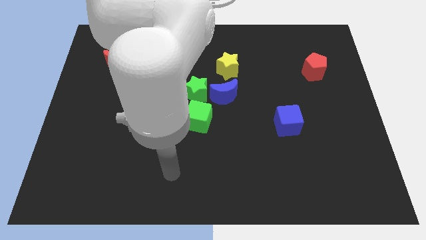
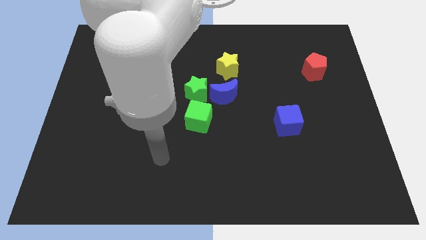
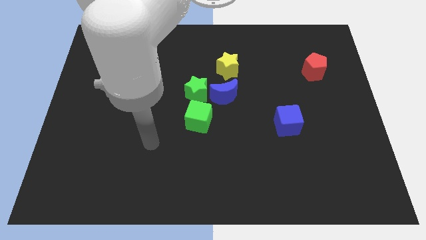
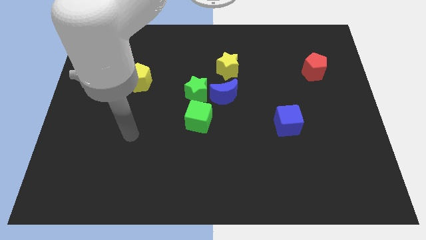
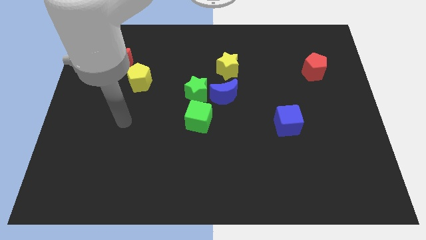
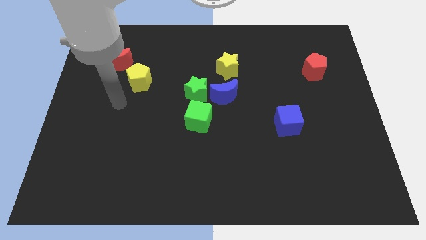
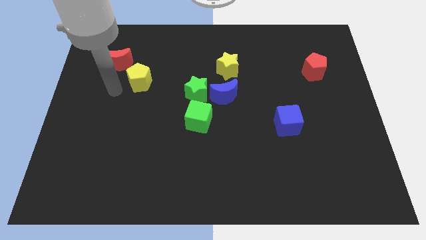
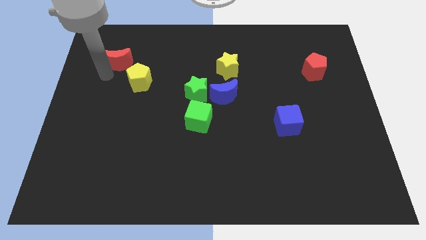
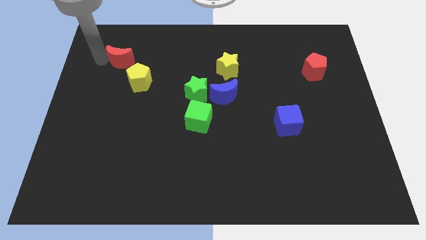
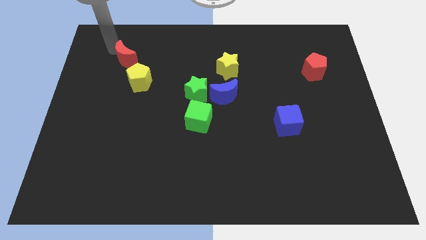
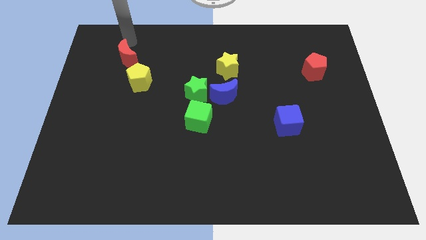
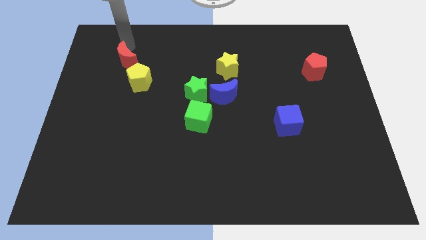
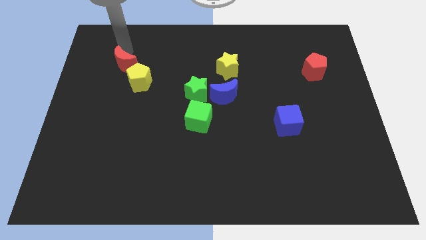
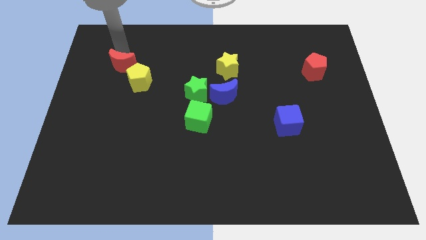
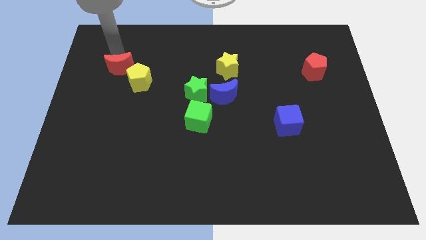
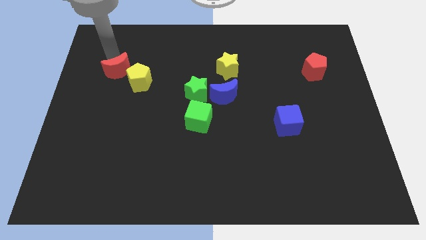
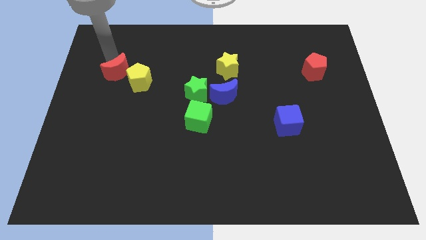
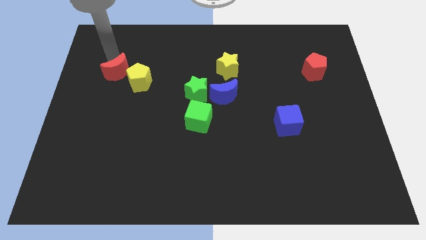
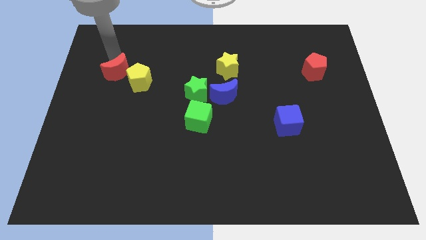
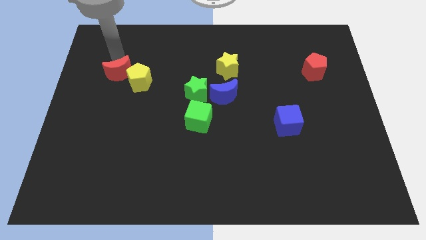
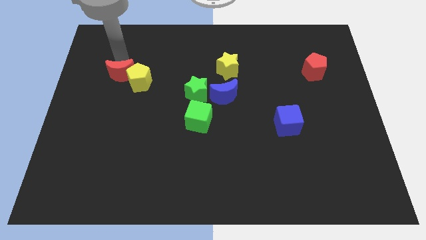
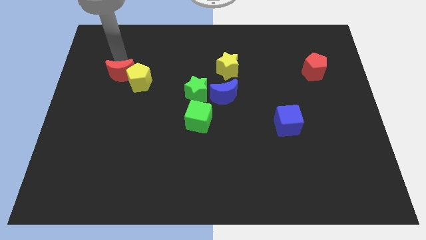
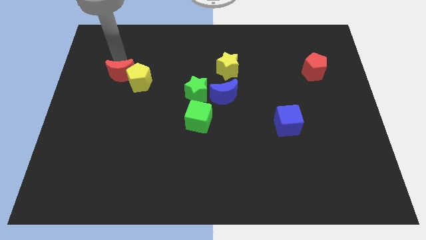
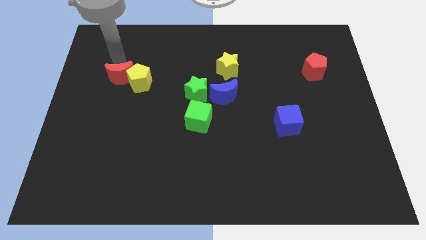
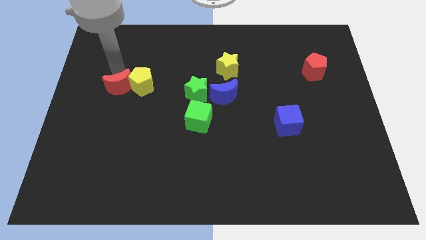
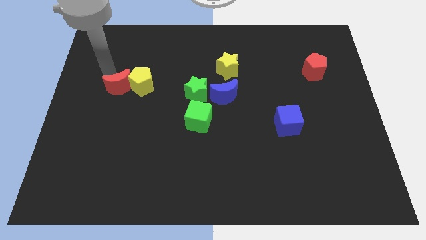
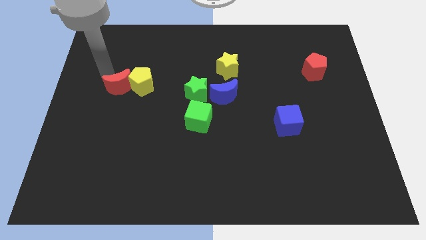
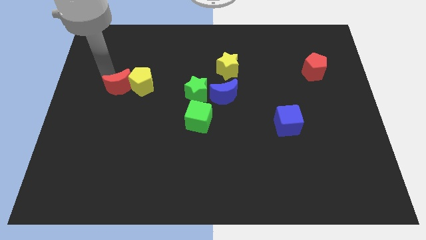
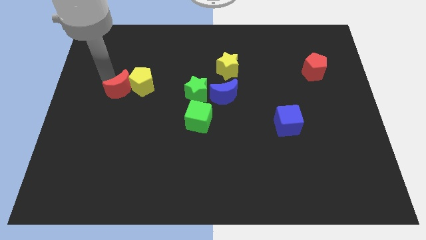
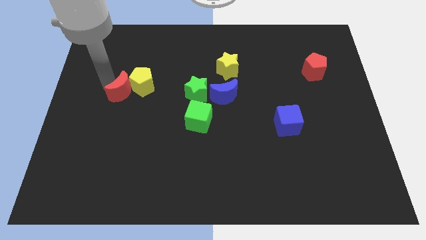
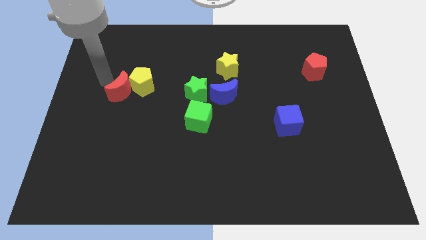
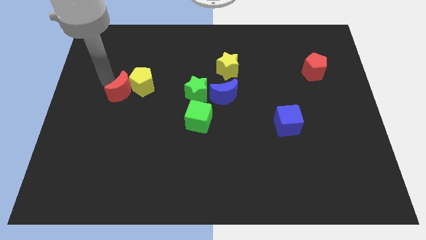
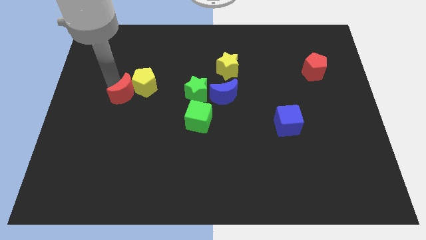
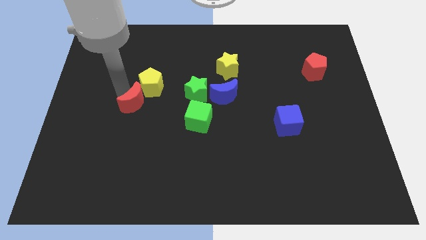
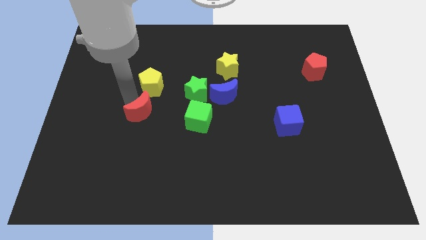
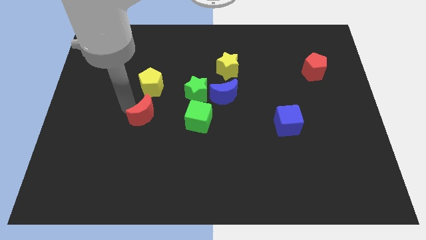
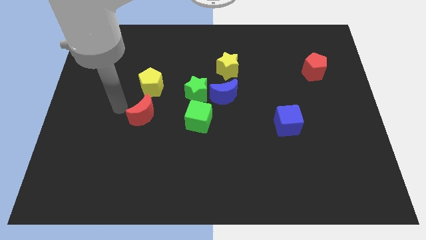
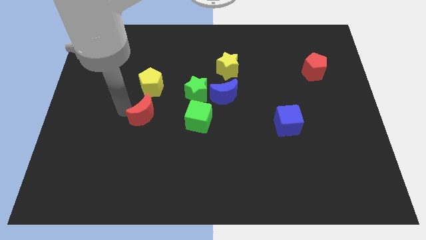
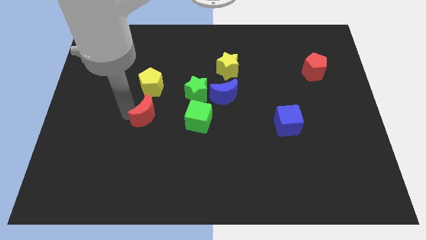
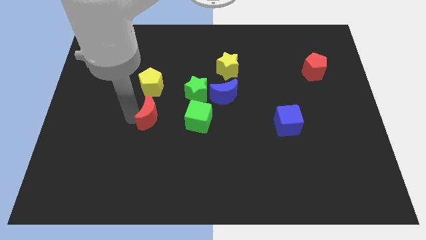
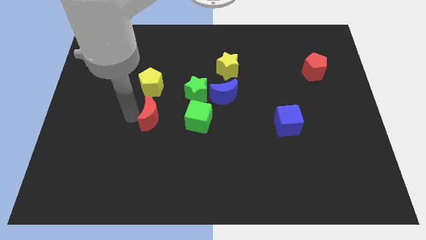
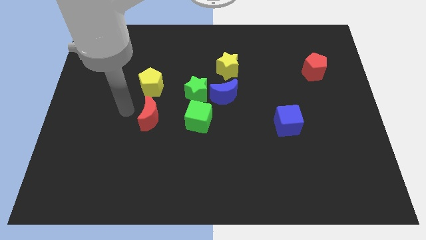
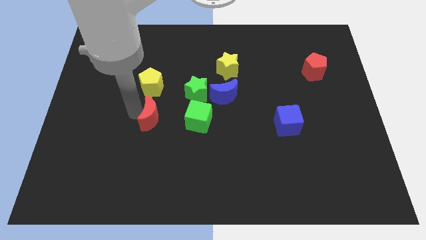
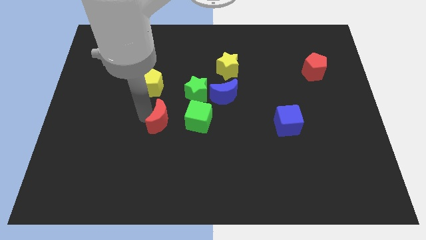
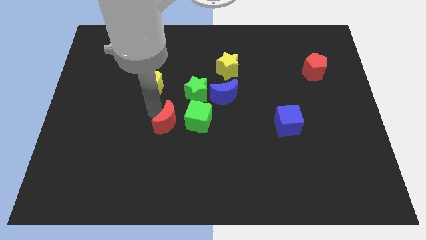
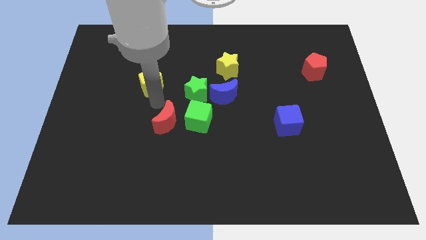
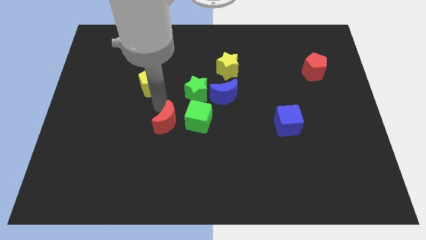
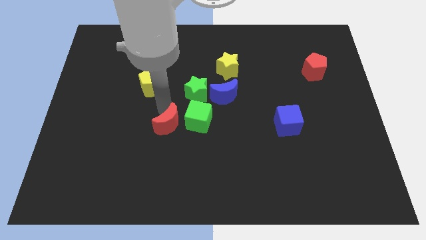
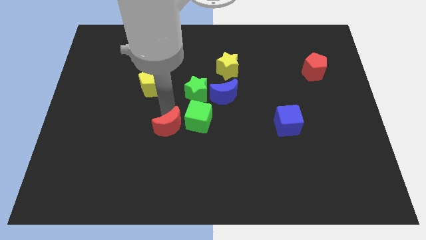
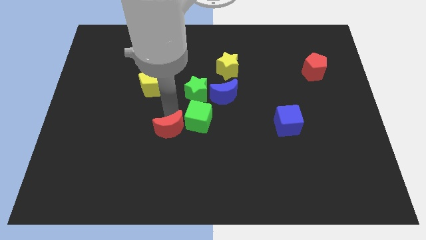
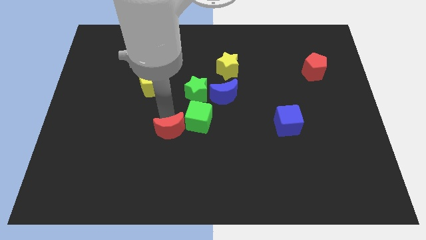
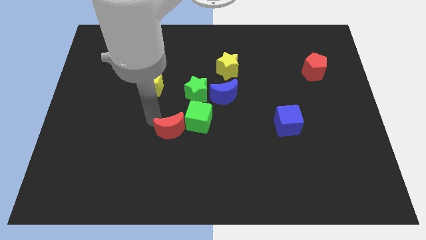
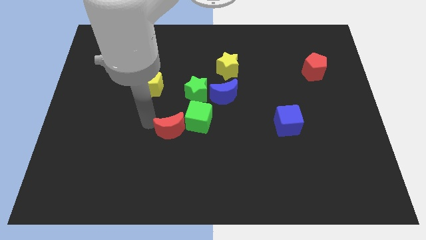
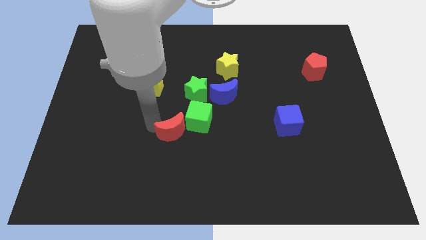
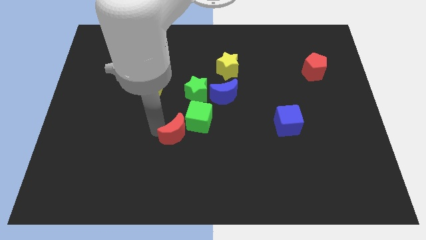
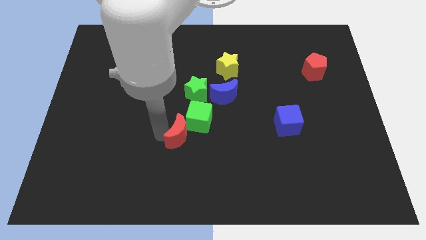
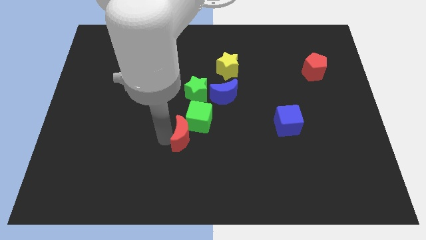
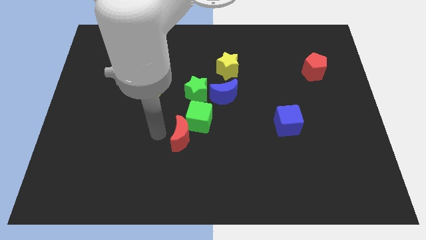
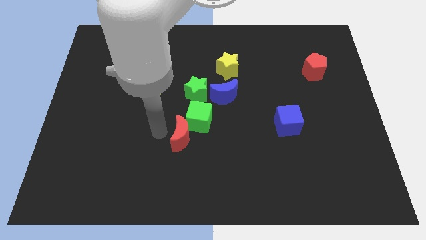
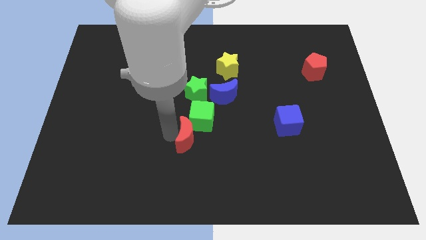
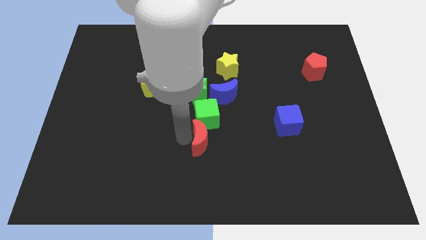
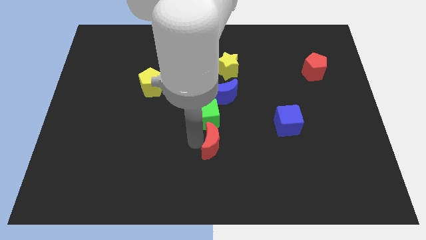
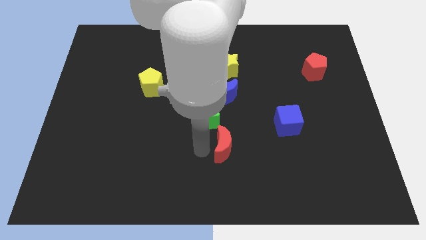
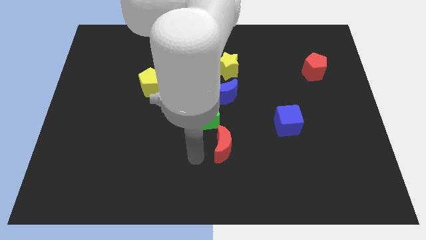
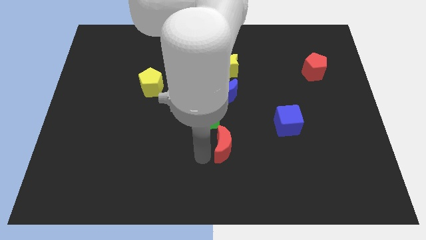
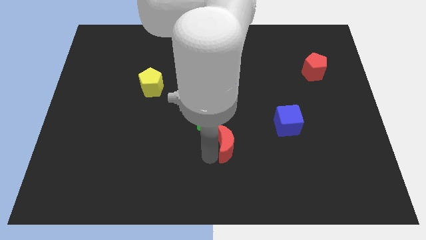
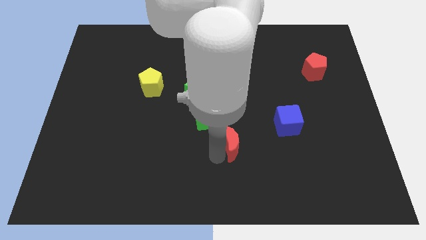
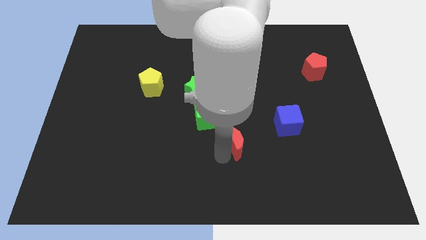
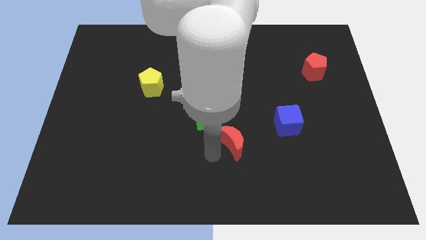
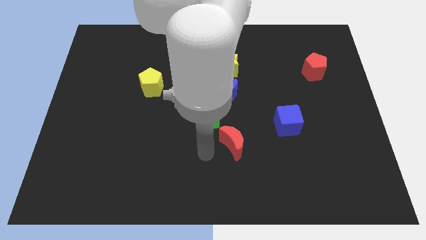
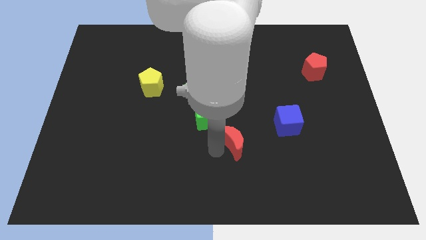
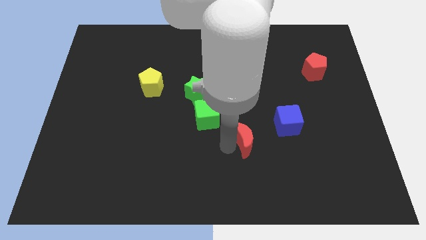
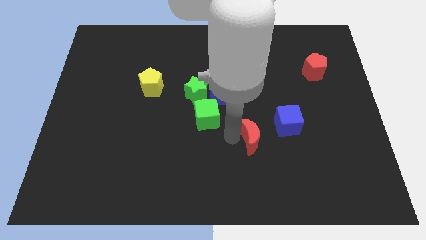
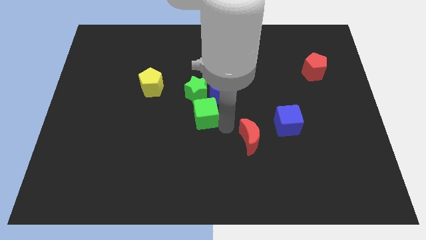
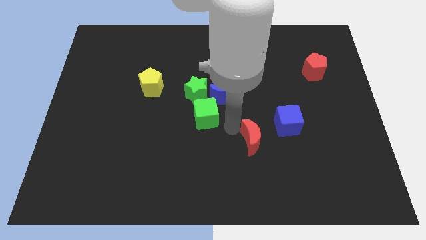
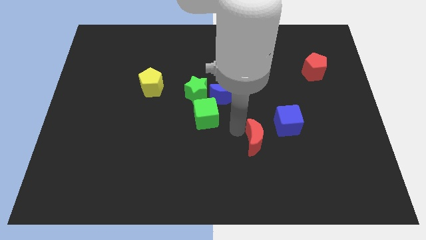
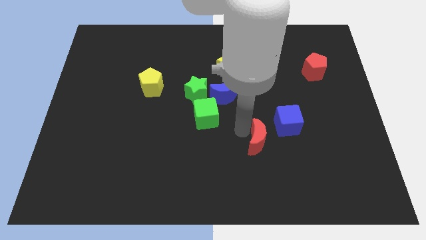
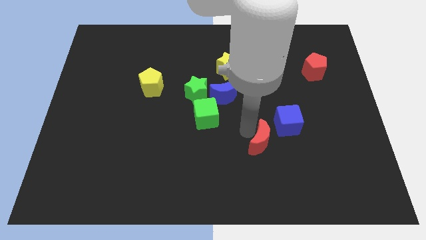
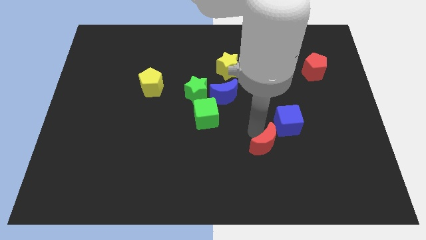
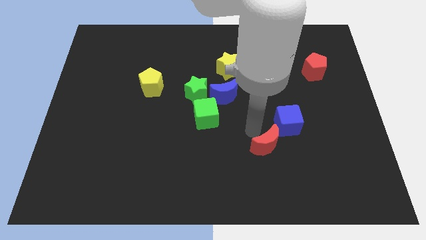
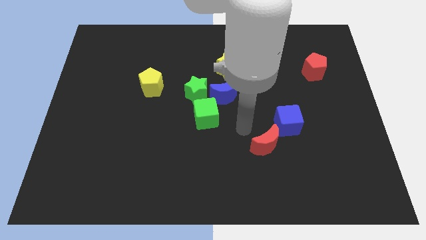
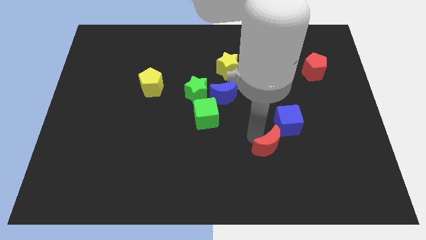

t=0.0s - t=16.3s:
put the red moon below the blue cube

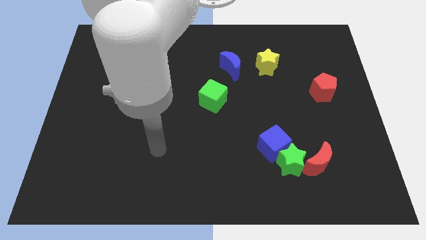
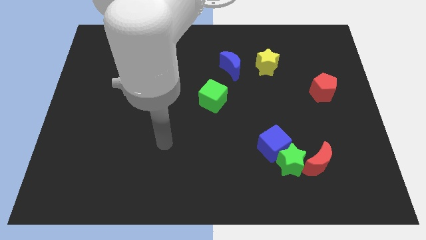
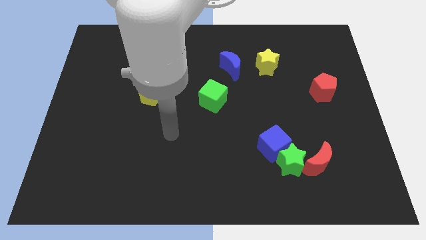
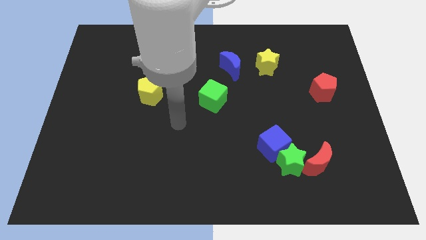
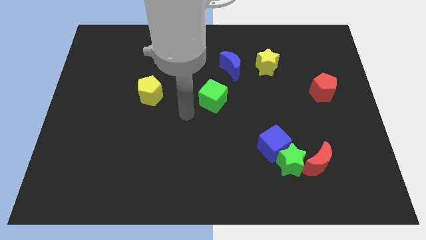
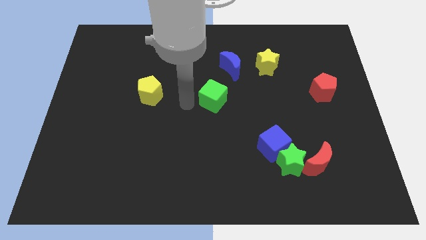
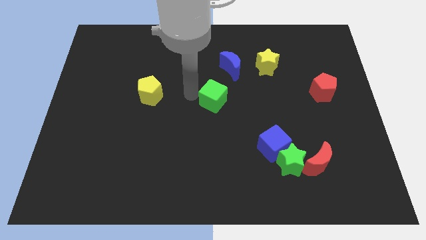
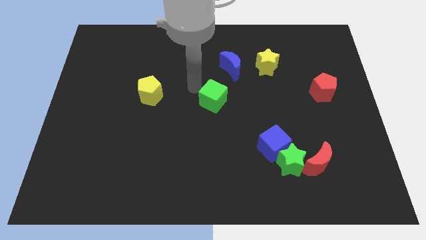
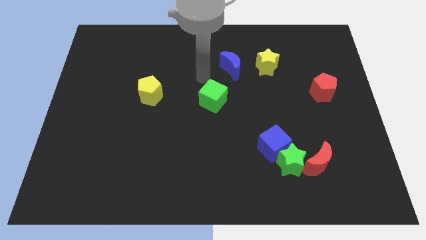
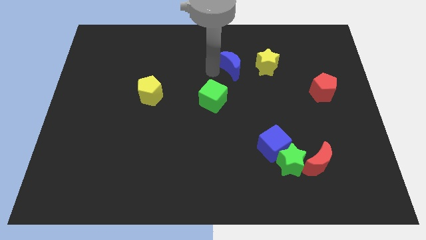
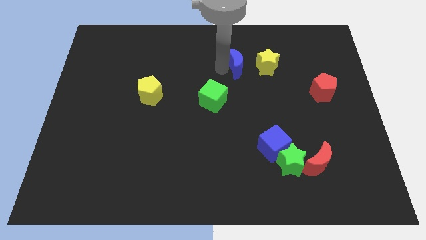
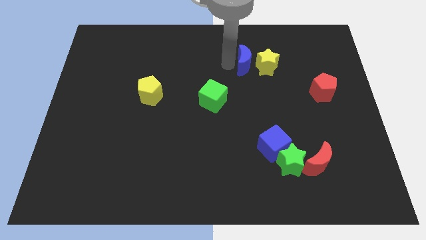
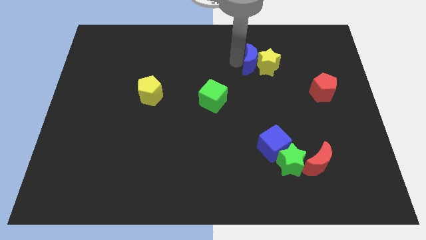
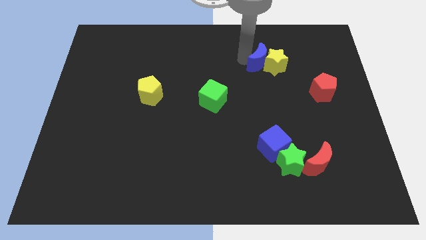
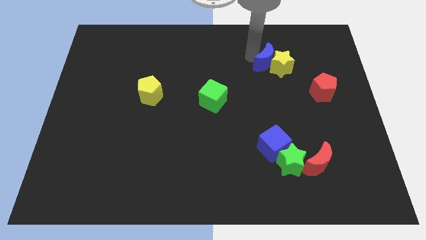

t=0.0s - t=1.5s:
put the yellow star diagonally up and to the left of the red pentagon
